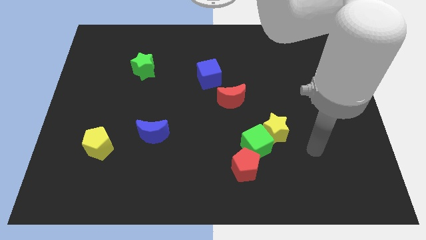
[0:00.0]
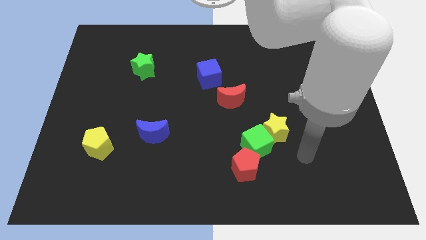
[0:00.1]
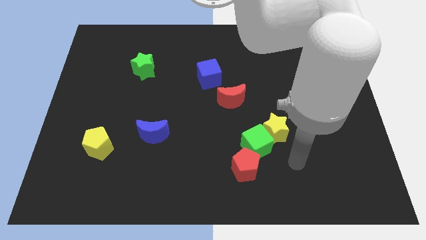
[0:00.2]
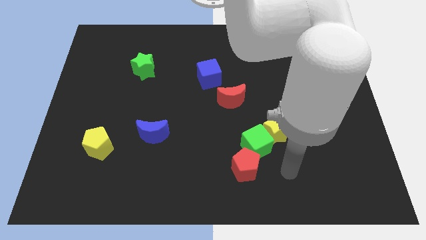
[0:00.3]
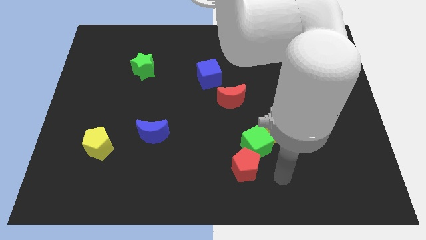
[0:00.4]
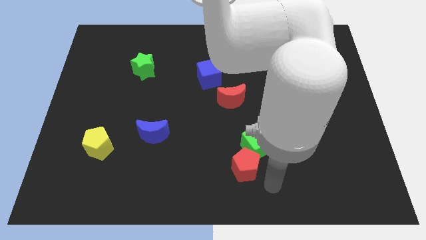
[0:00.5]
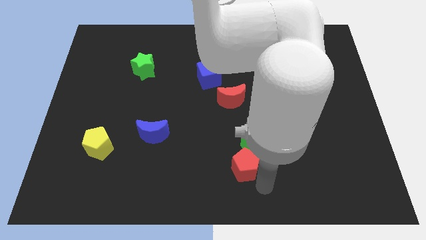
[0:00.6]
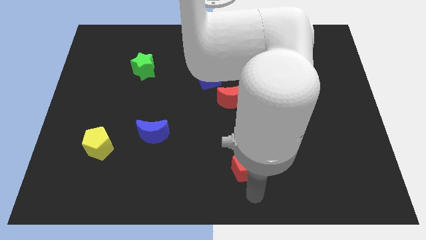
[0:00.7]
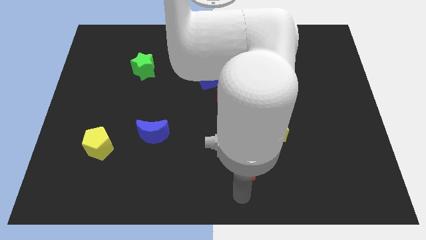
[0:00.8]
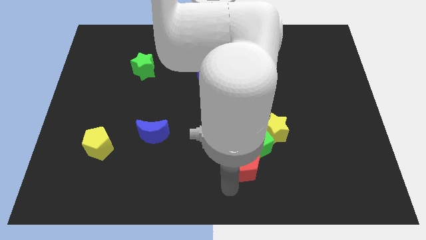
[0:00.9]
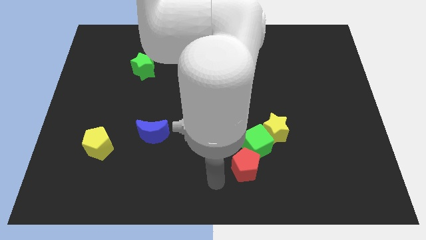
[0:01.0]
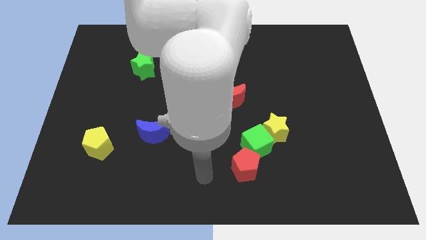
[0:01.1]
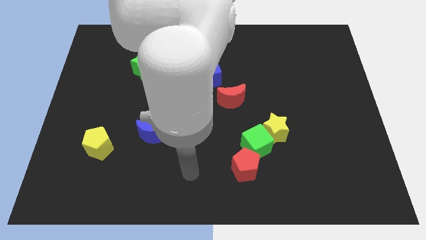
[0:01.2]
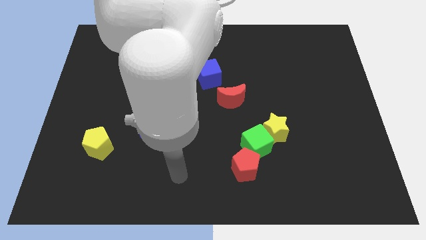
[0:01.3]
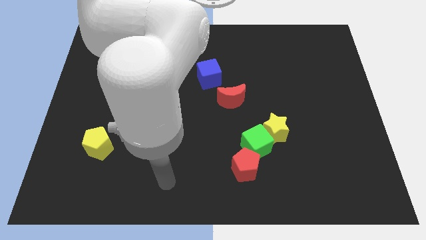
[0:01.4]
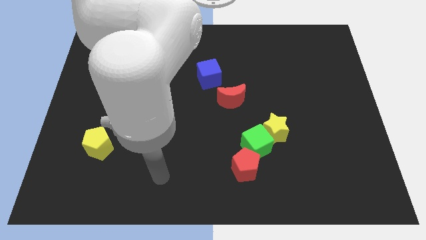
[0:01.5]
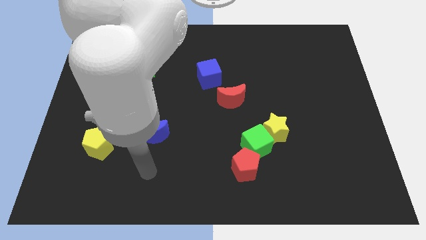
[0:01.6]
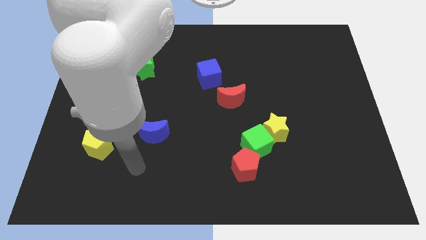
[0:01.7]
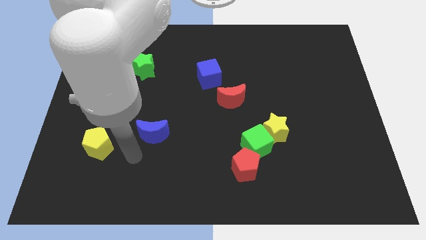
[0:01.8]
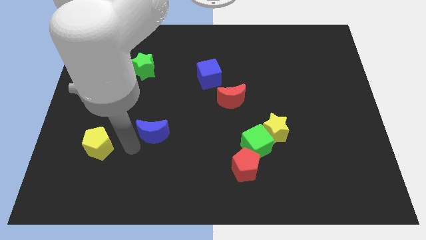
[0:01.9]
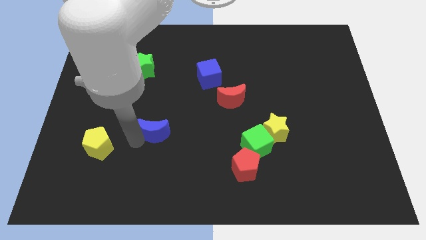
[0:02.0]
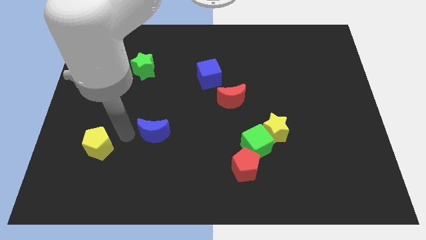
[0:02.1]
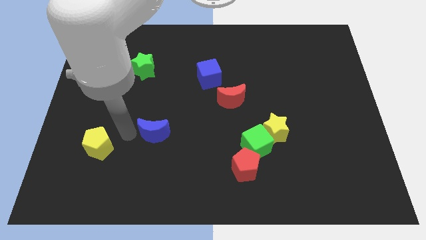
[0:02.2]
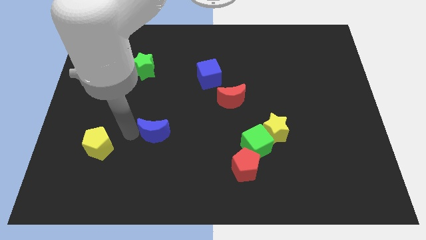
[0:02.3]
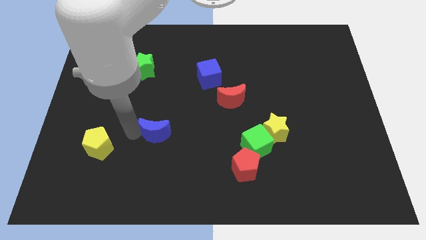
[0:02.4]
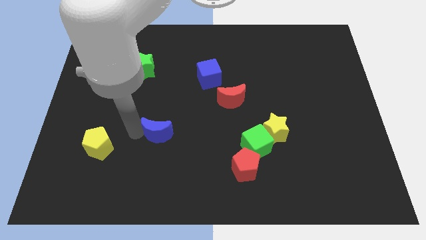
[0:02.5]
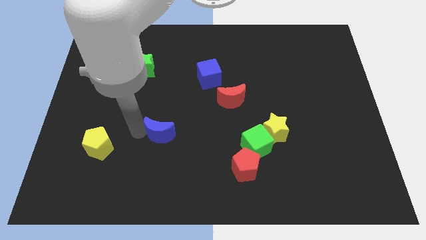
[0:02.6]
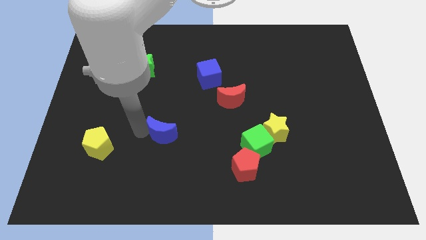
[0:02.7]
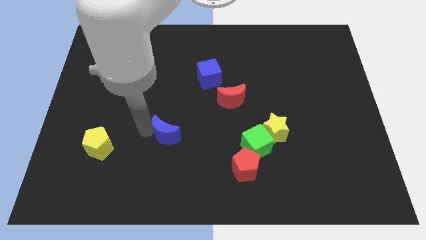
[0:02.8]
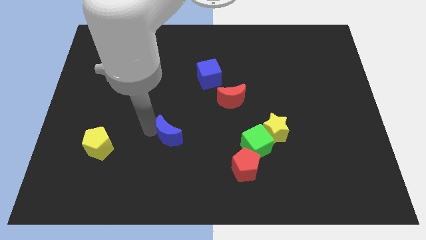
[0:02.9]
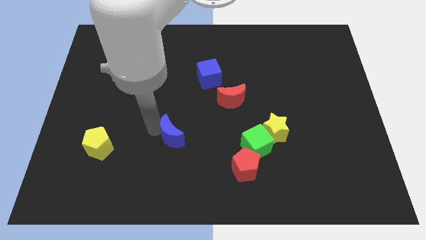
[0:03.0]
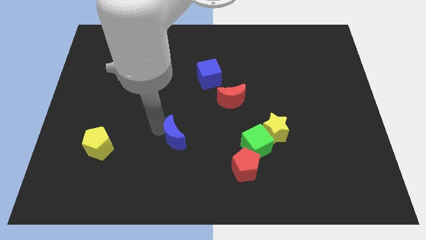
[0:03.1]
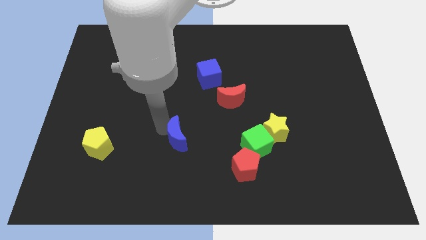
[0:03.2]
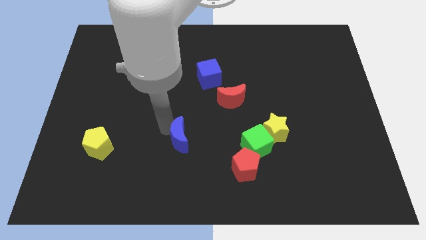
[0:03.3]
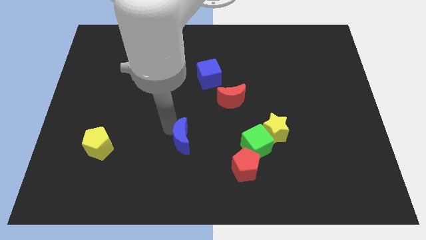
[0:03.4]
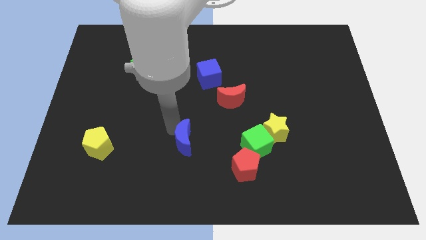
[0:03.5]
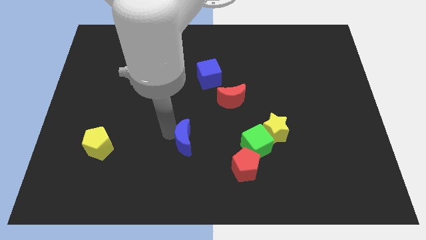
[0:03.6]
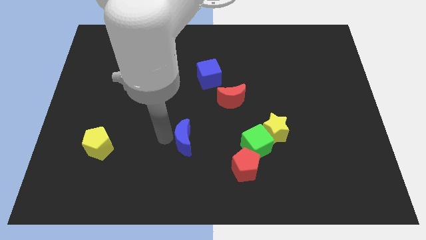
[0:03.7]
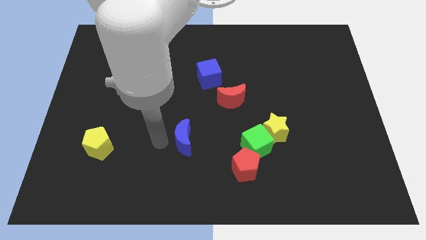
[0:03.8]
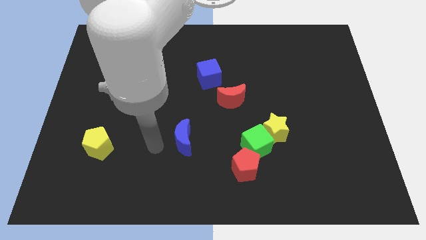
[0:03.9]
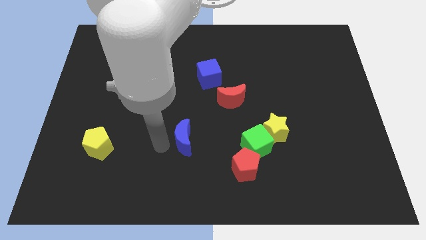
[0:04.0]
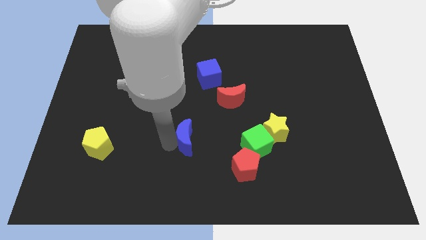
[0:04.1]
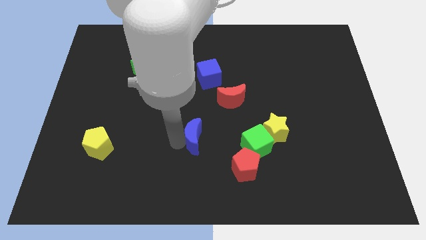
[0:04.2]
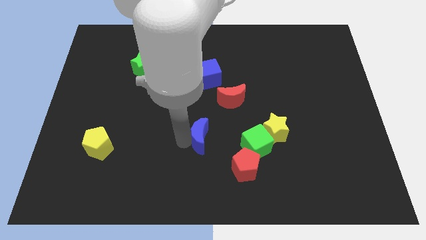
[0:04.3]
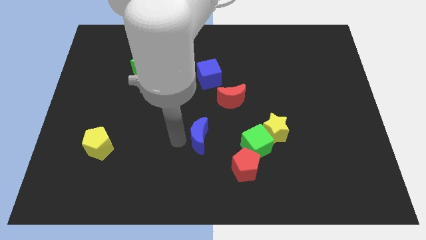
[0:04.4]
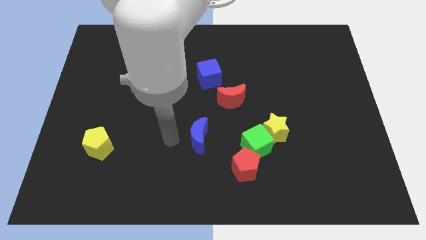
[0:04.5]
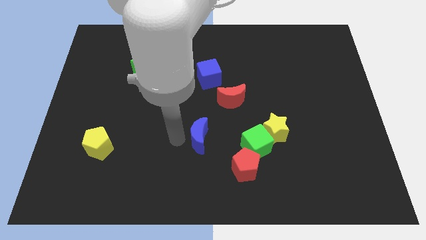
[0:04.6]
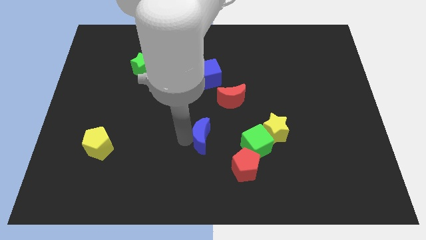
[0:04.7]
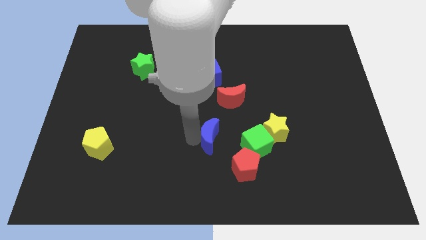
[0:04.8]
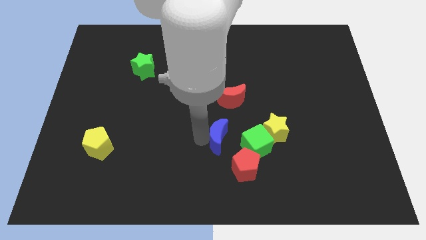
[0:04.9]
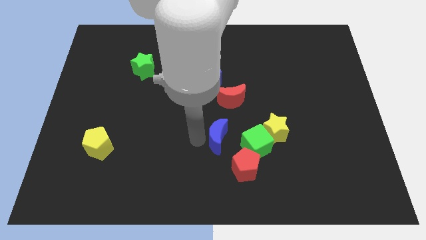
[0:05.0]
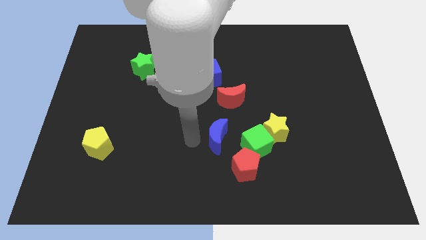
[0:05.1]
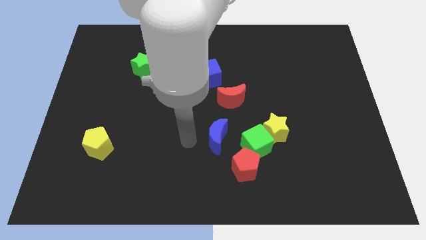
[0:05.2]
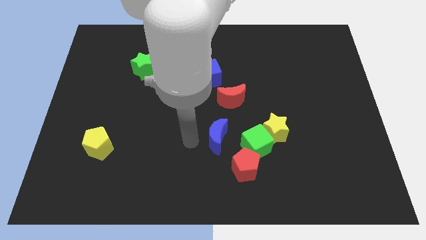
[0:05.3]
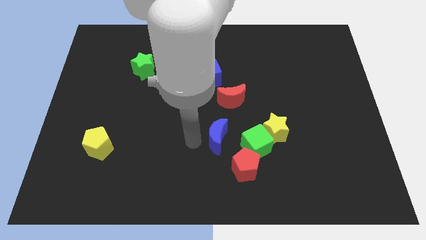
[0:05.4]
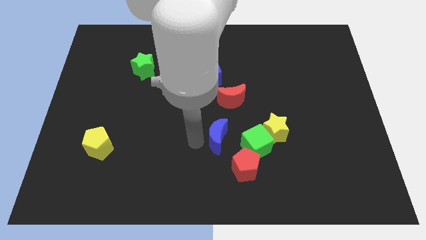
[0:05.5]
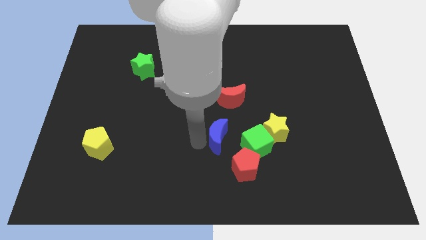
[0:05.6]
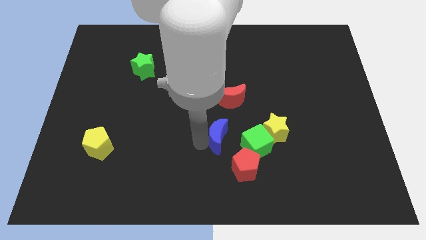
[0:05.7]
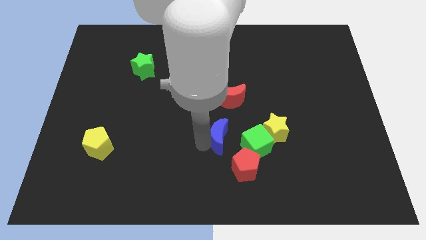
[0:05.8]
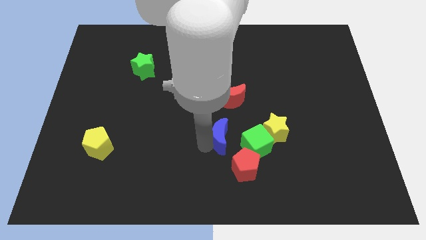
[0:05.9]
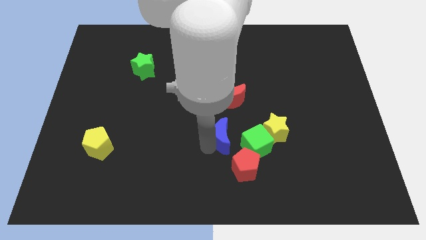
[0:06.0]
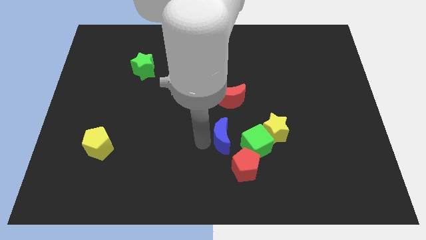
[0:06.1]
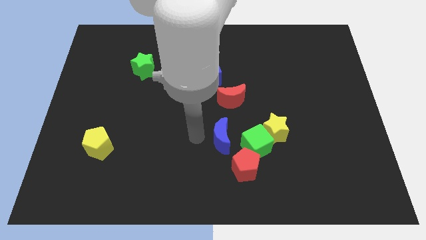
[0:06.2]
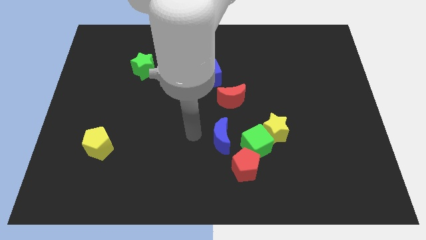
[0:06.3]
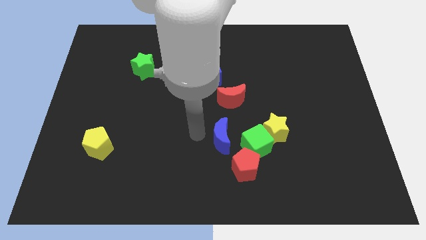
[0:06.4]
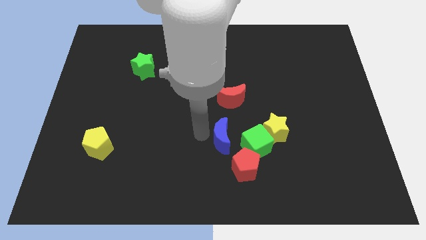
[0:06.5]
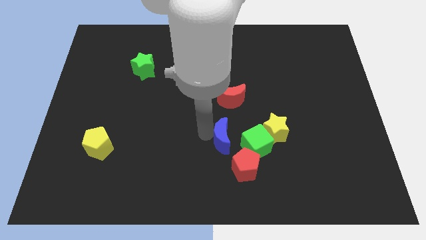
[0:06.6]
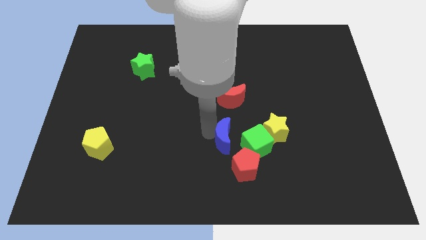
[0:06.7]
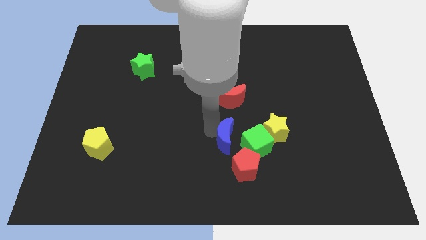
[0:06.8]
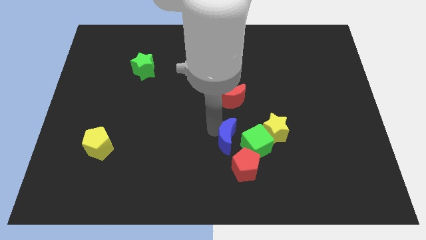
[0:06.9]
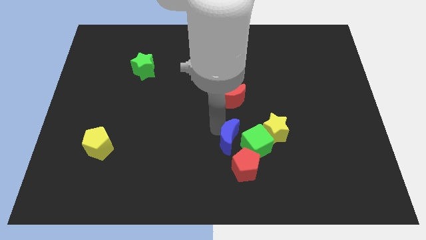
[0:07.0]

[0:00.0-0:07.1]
slide the blue moon to the green cube
